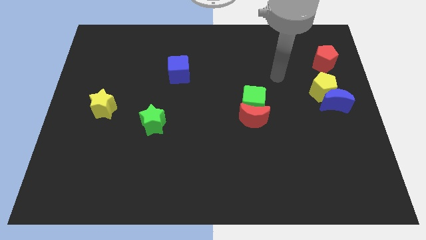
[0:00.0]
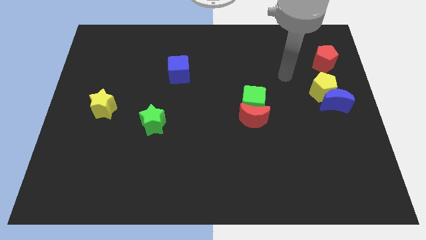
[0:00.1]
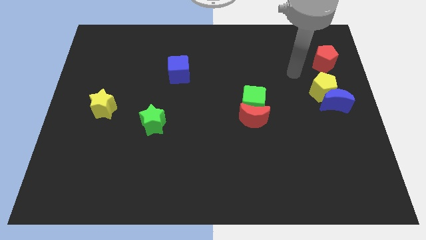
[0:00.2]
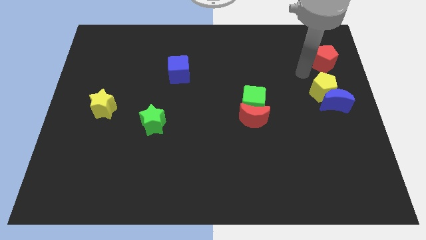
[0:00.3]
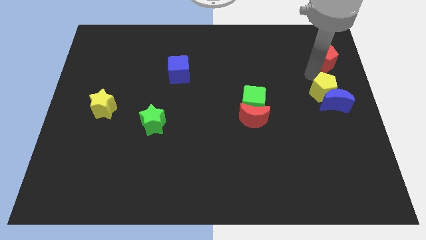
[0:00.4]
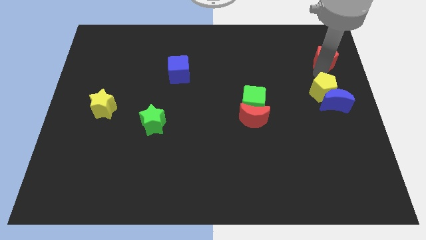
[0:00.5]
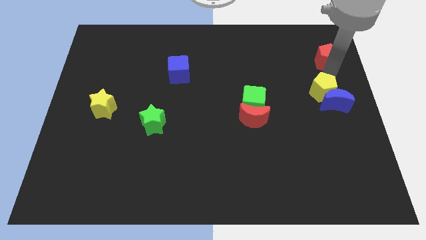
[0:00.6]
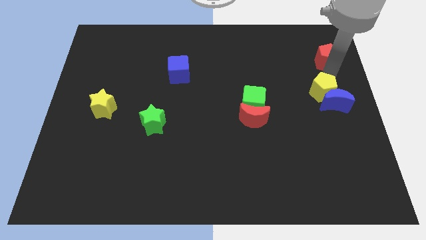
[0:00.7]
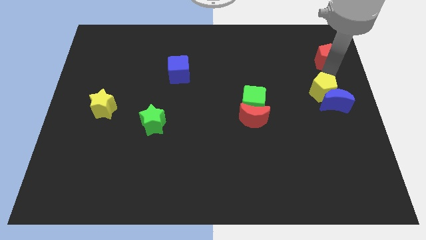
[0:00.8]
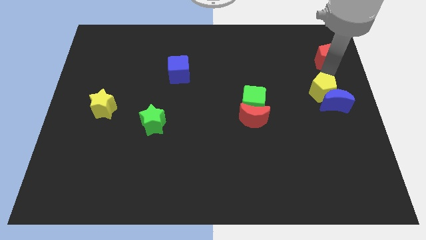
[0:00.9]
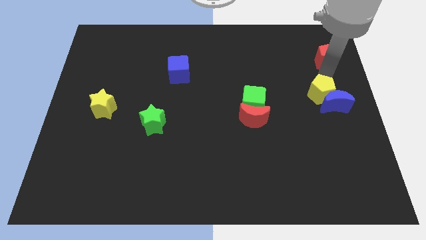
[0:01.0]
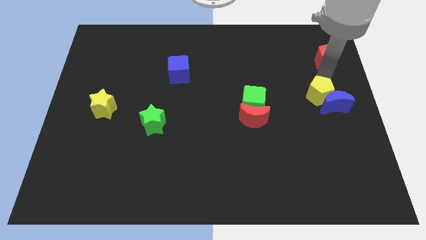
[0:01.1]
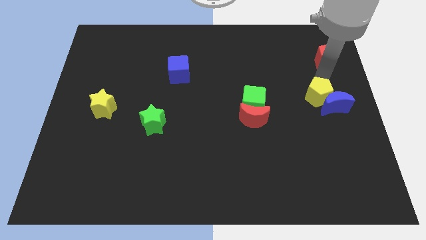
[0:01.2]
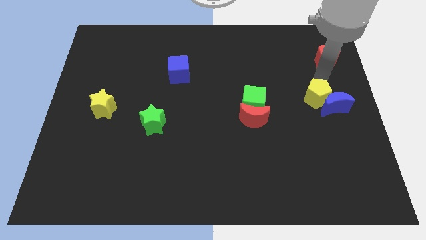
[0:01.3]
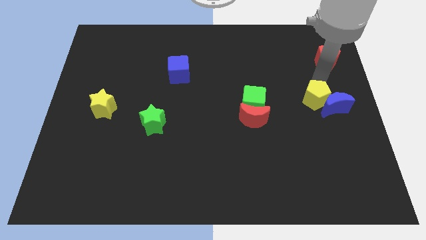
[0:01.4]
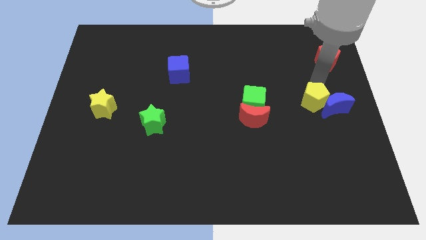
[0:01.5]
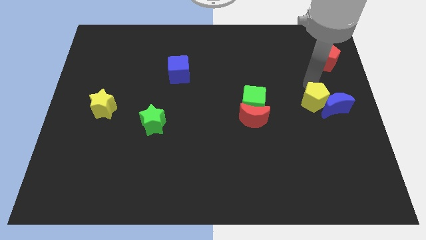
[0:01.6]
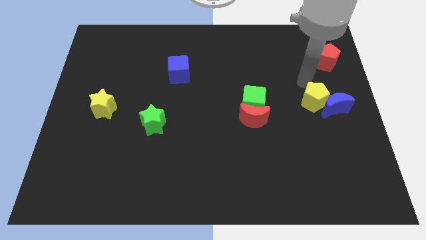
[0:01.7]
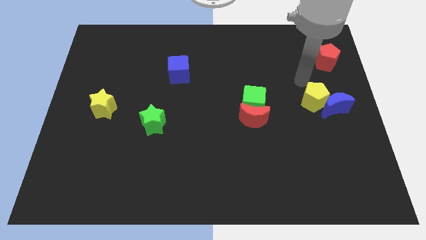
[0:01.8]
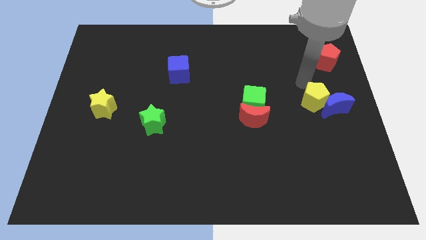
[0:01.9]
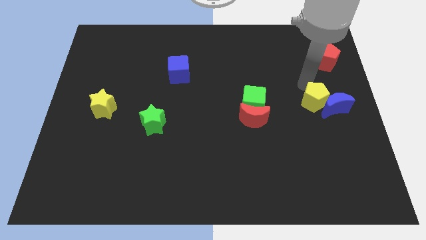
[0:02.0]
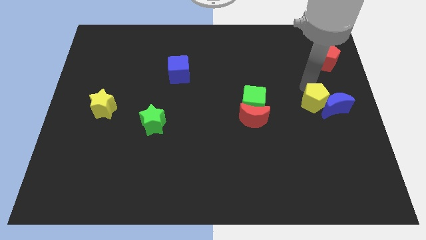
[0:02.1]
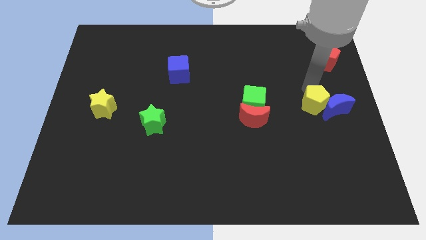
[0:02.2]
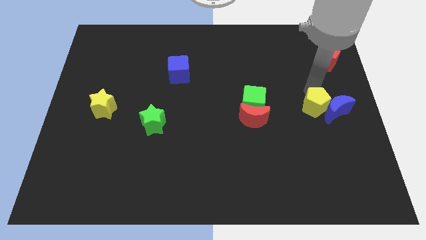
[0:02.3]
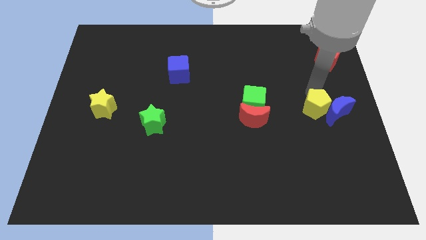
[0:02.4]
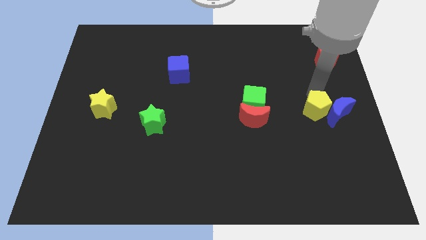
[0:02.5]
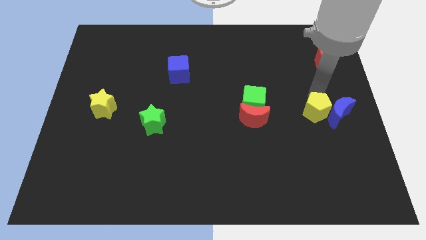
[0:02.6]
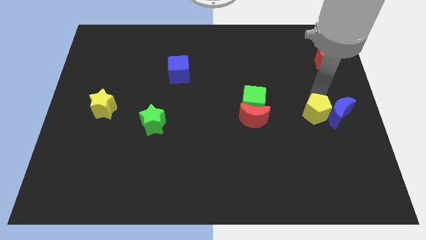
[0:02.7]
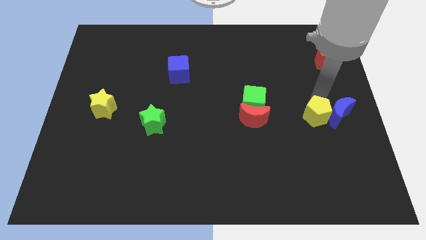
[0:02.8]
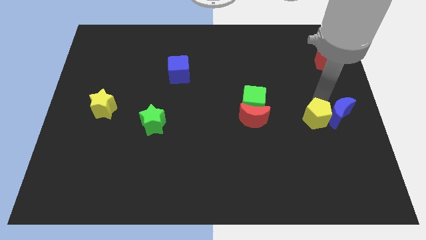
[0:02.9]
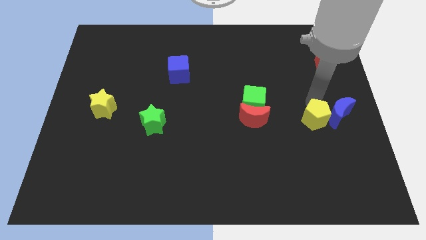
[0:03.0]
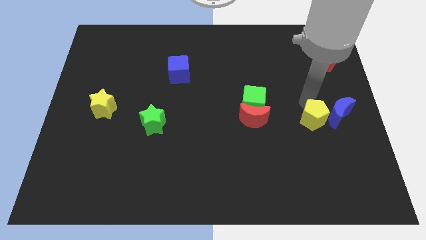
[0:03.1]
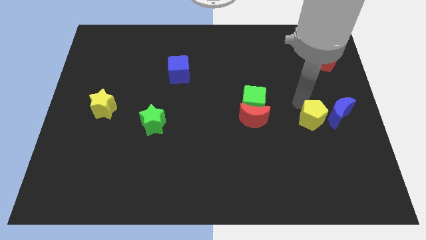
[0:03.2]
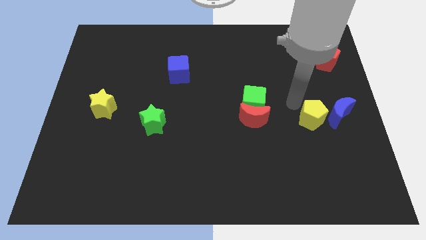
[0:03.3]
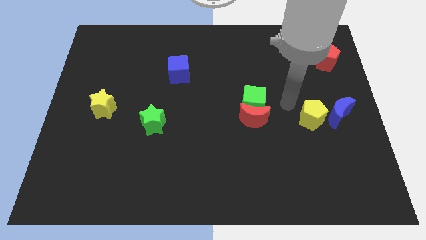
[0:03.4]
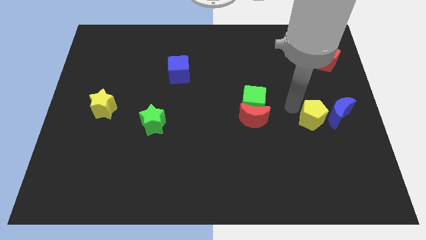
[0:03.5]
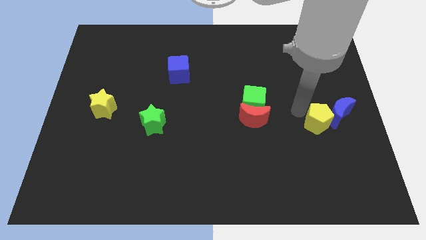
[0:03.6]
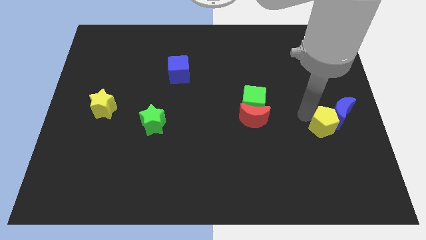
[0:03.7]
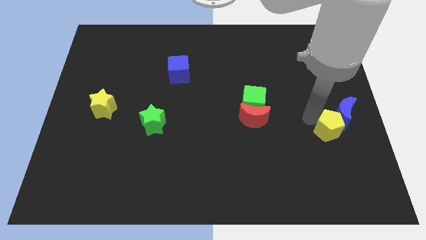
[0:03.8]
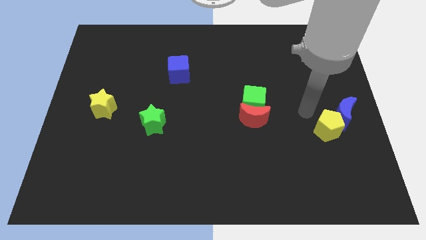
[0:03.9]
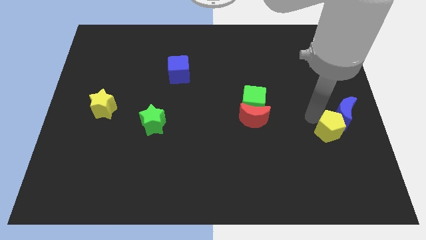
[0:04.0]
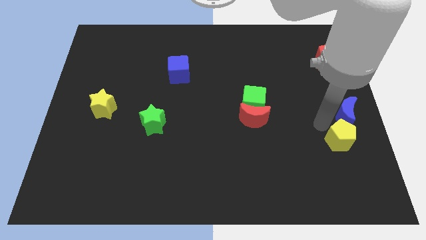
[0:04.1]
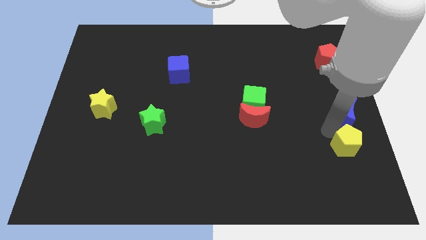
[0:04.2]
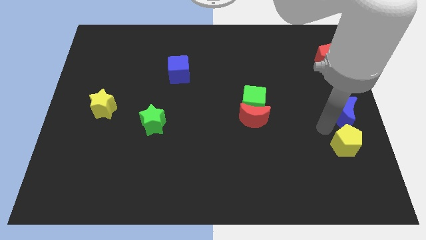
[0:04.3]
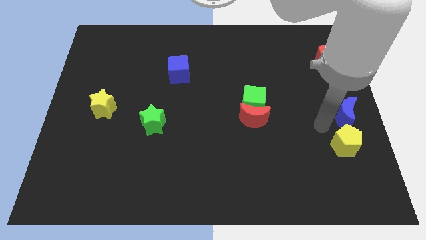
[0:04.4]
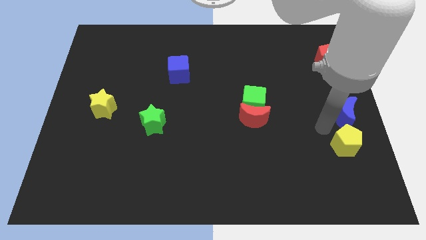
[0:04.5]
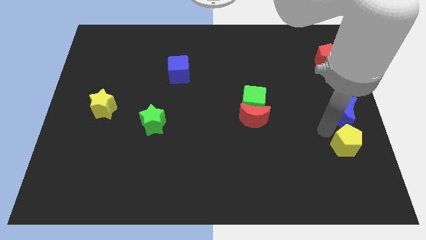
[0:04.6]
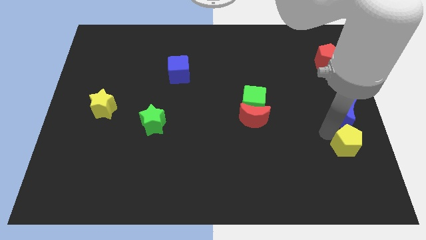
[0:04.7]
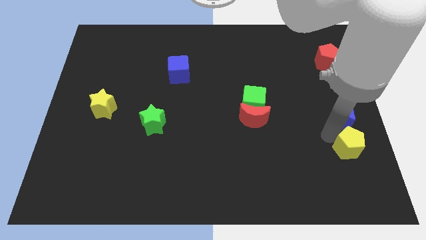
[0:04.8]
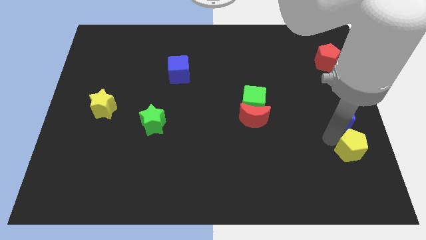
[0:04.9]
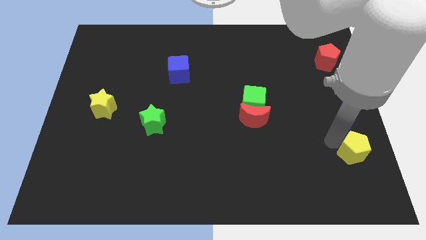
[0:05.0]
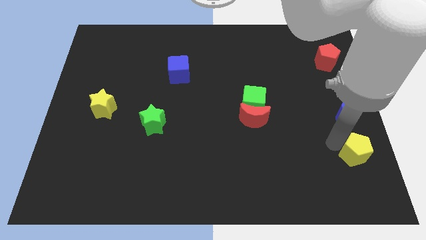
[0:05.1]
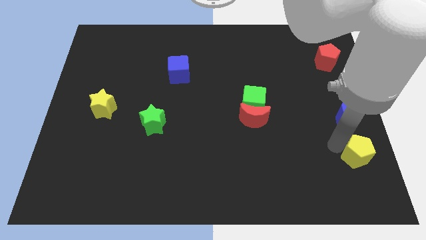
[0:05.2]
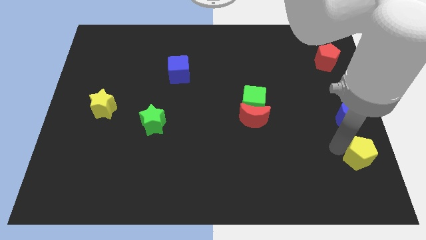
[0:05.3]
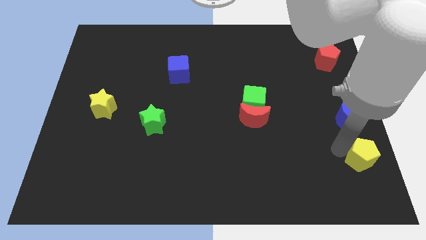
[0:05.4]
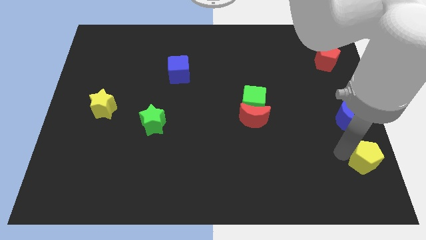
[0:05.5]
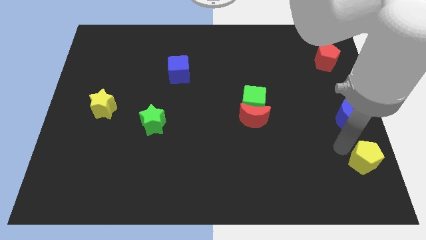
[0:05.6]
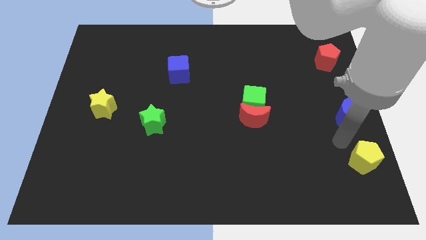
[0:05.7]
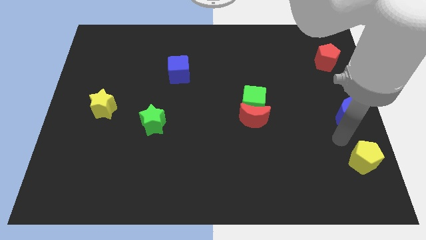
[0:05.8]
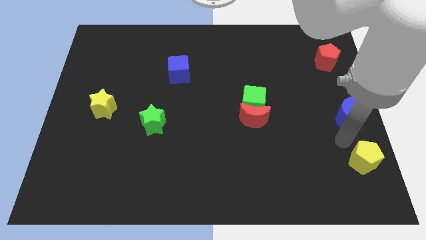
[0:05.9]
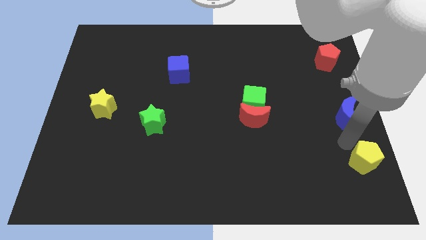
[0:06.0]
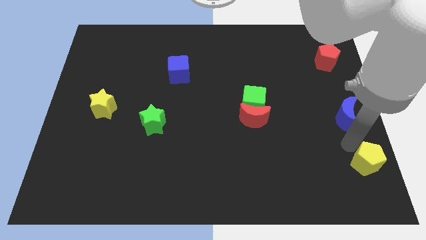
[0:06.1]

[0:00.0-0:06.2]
move the yellow pentagon to the bottom right of the board
